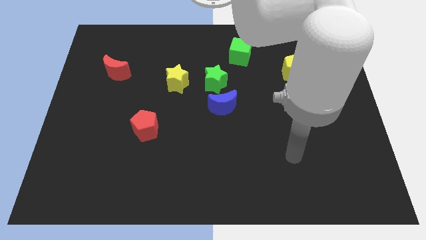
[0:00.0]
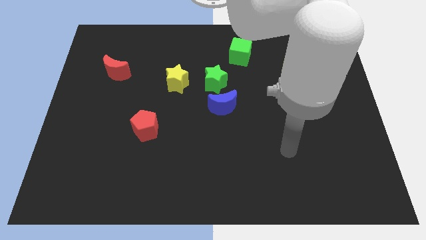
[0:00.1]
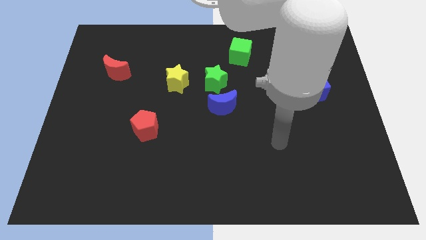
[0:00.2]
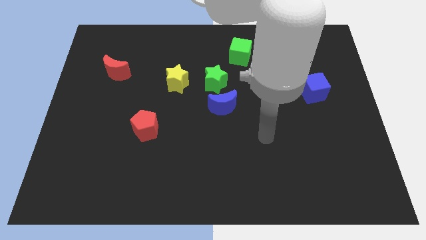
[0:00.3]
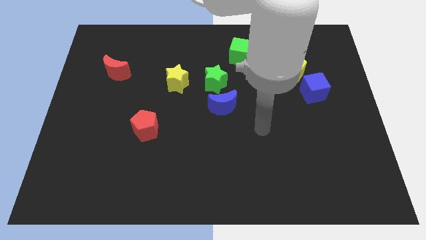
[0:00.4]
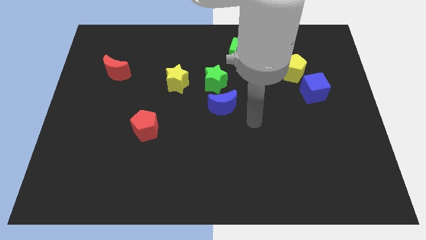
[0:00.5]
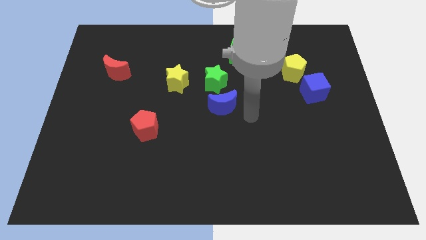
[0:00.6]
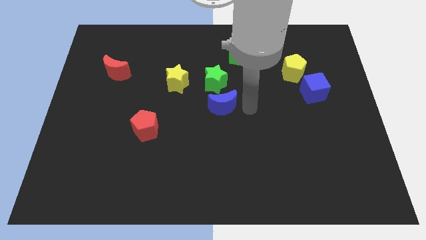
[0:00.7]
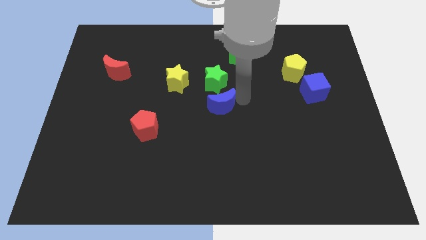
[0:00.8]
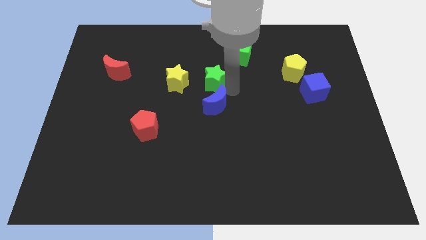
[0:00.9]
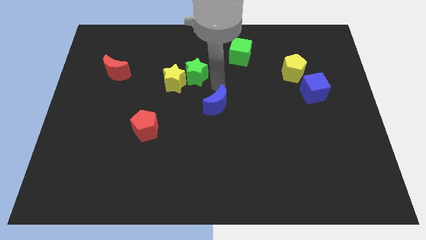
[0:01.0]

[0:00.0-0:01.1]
separate the blue moon from the green star

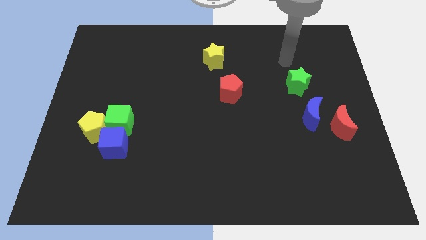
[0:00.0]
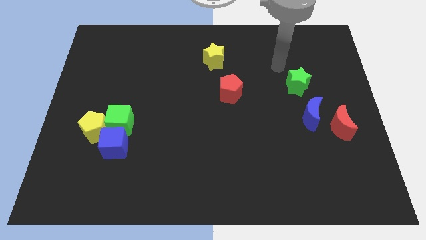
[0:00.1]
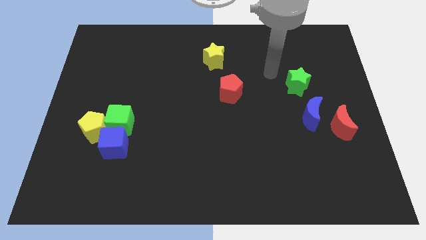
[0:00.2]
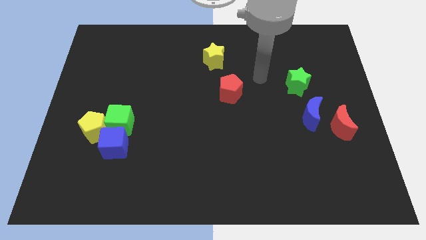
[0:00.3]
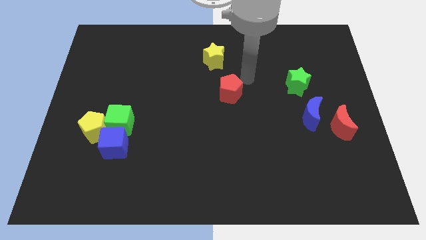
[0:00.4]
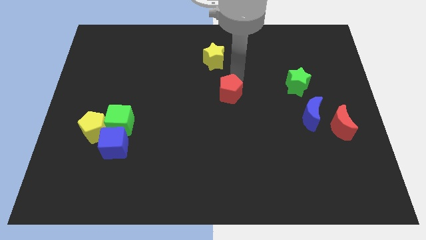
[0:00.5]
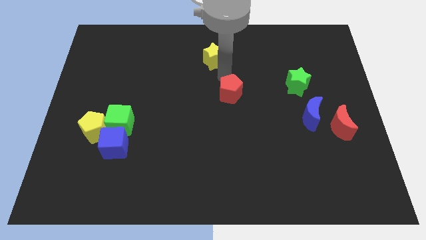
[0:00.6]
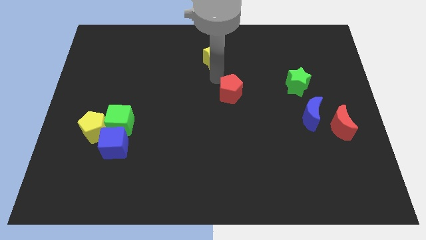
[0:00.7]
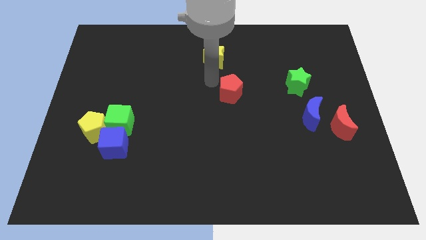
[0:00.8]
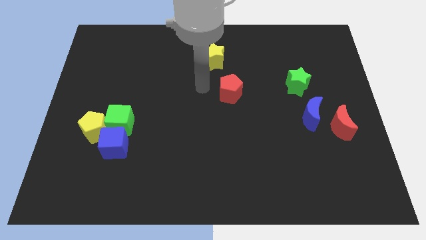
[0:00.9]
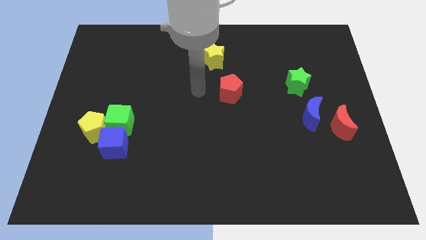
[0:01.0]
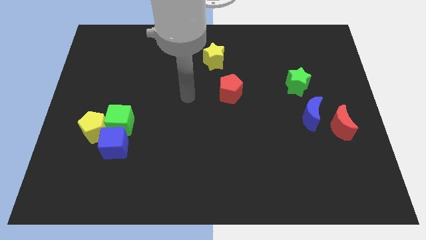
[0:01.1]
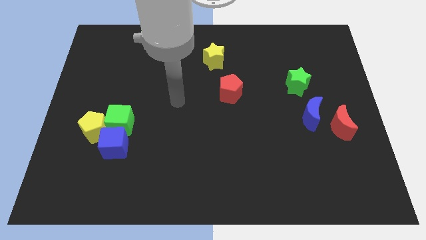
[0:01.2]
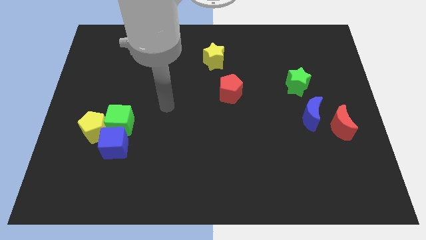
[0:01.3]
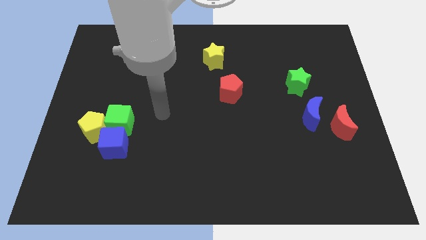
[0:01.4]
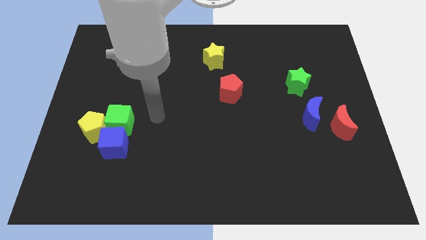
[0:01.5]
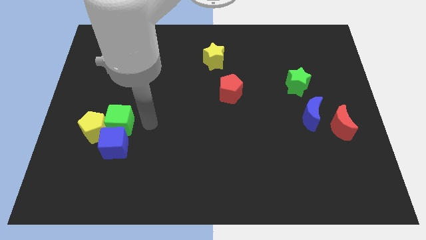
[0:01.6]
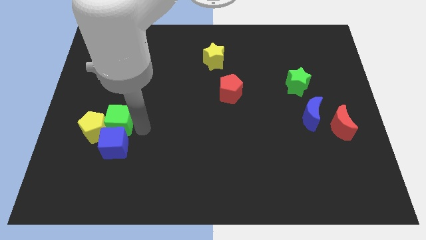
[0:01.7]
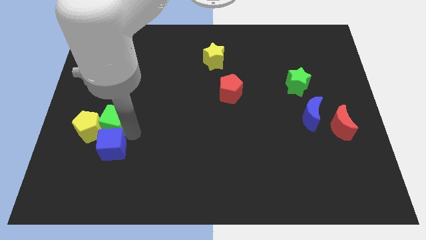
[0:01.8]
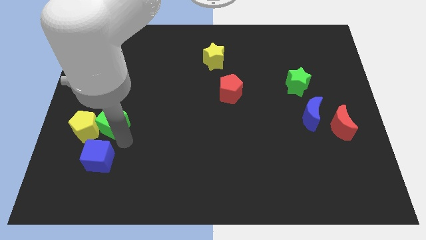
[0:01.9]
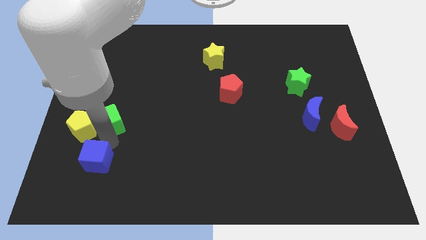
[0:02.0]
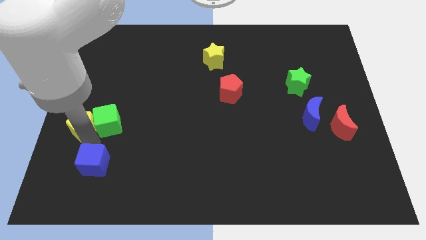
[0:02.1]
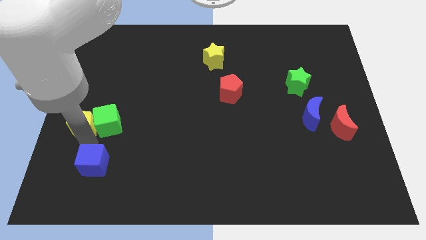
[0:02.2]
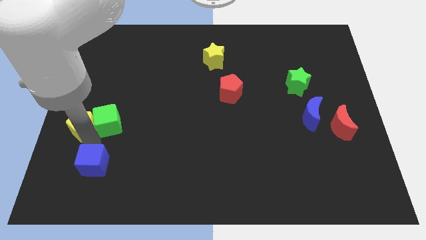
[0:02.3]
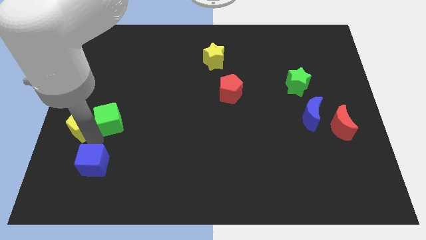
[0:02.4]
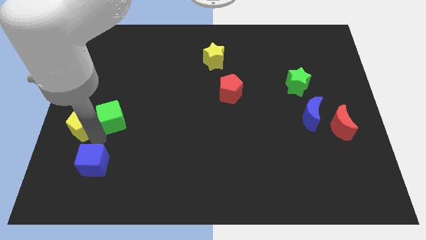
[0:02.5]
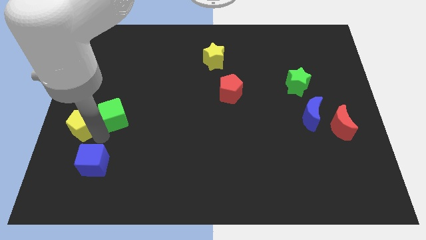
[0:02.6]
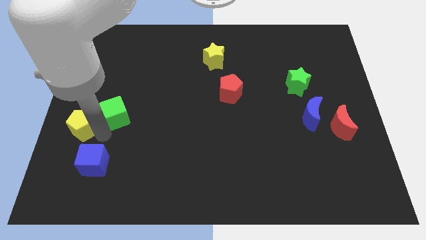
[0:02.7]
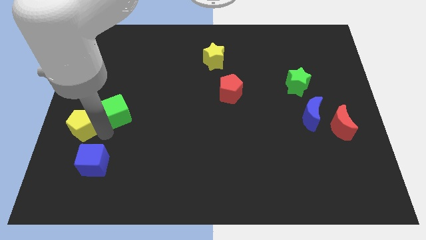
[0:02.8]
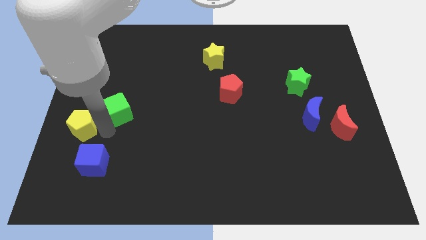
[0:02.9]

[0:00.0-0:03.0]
move the green cube away from the yellow pentagon and blue cube

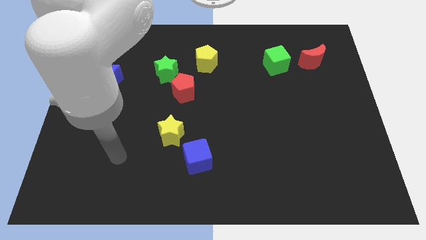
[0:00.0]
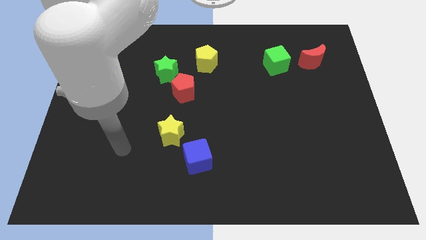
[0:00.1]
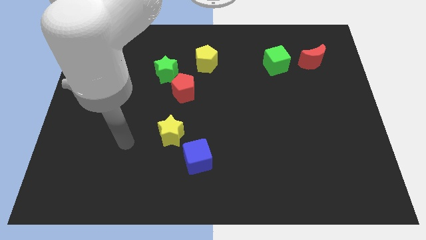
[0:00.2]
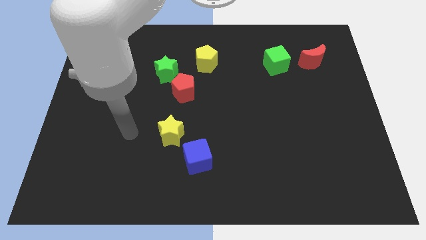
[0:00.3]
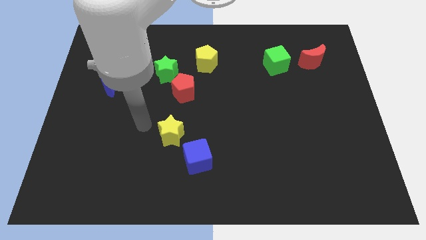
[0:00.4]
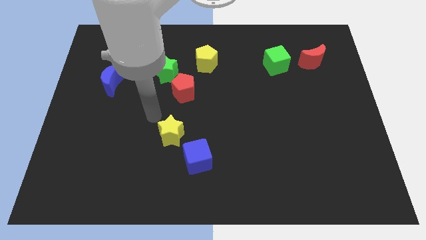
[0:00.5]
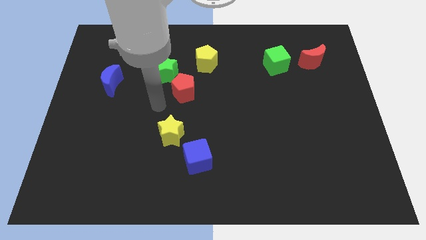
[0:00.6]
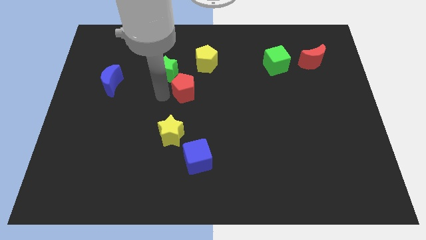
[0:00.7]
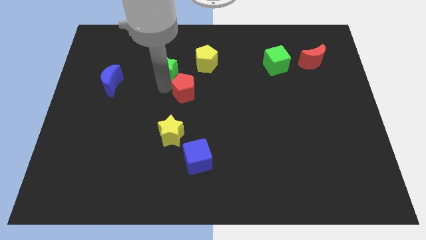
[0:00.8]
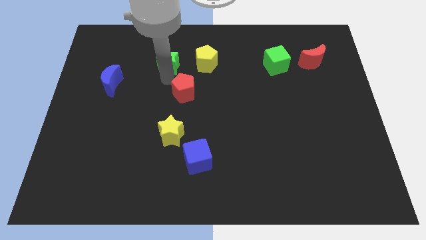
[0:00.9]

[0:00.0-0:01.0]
move the red pentagon away from the green star

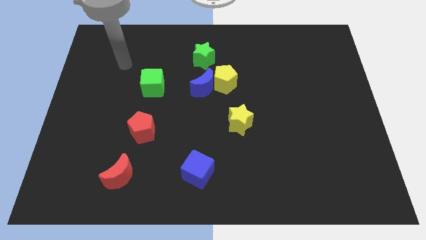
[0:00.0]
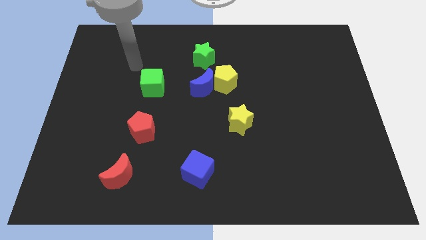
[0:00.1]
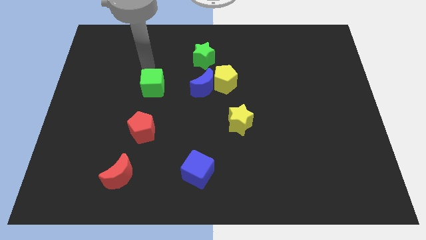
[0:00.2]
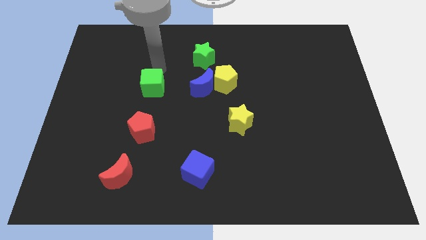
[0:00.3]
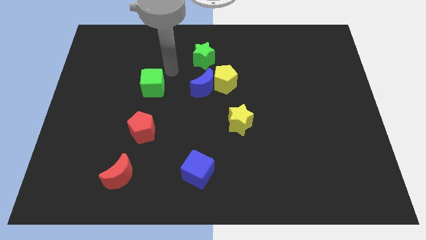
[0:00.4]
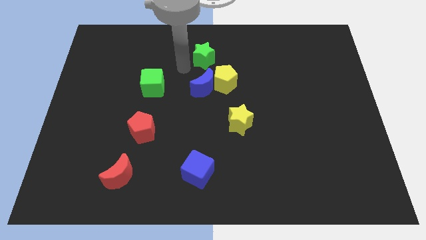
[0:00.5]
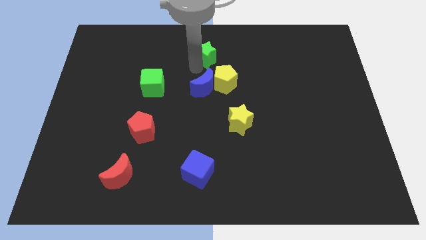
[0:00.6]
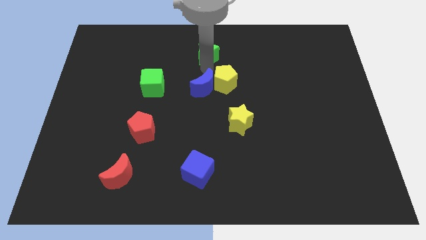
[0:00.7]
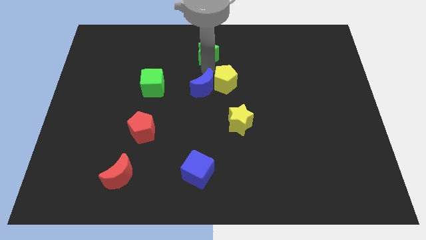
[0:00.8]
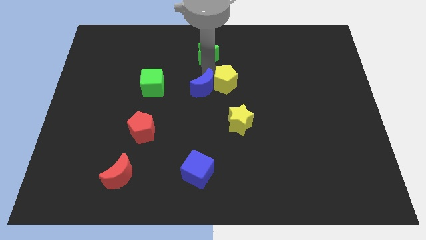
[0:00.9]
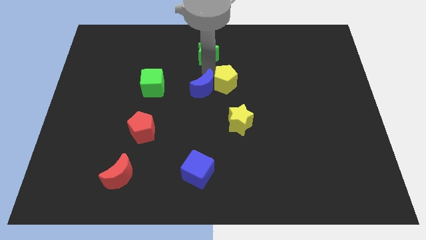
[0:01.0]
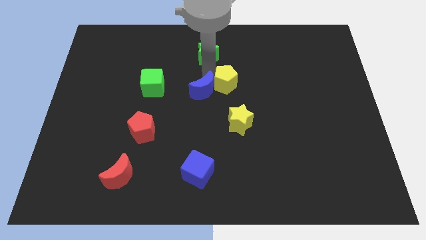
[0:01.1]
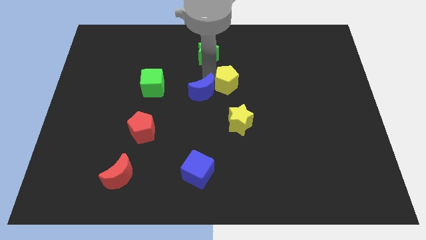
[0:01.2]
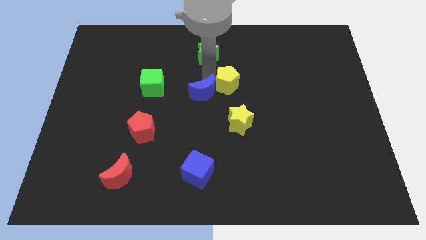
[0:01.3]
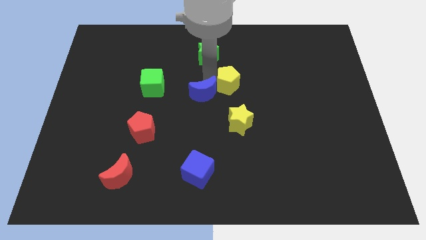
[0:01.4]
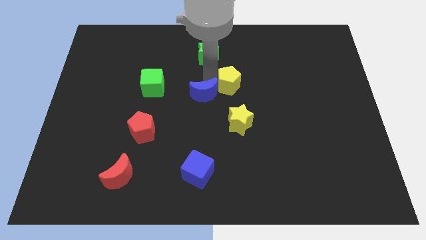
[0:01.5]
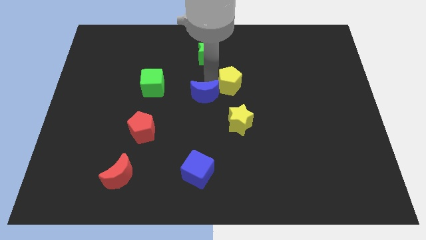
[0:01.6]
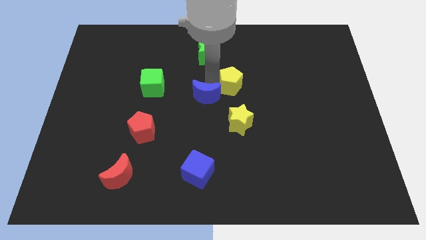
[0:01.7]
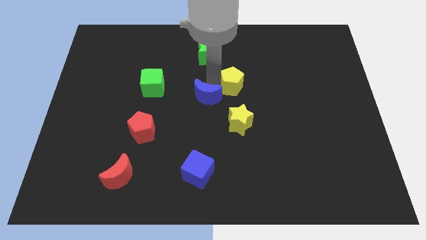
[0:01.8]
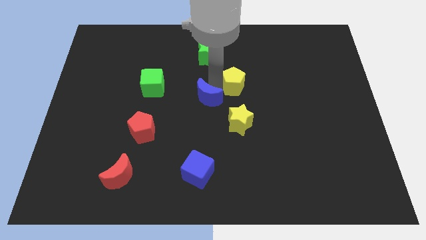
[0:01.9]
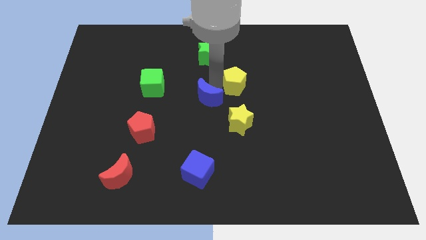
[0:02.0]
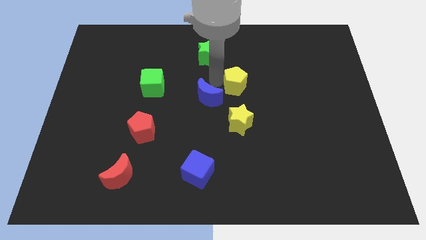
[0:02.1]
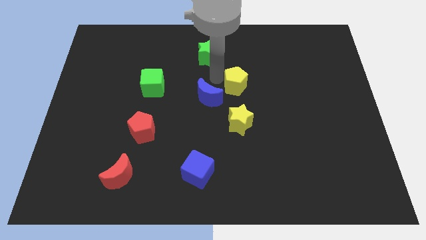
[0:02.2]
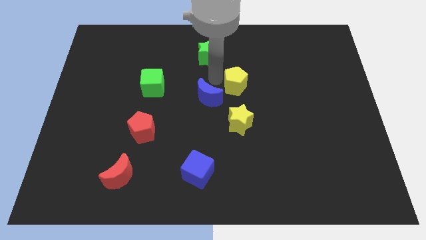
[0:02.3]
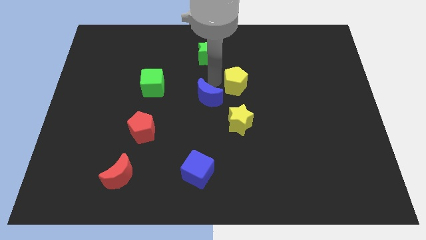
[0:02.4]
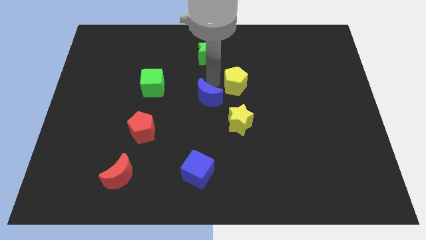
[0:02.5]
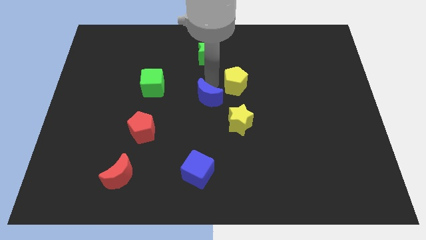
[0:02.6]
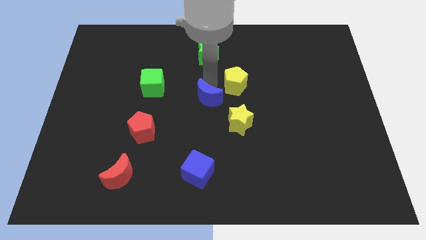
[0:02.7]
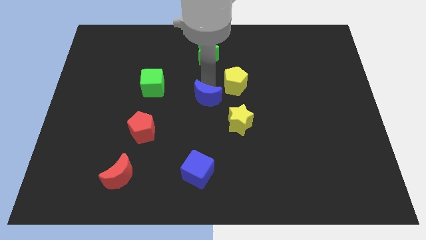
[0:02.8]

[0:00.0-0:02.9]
move the blue moon away from the yellow pentagon and green star

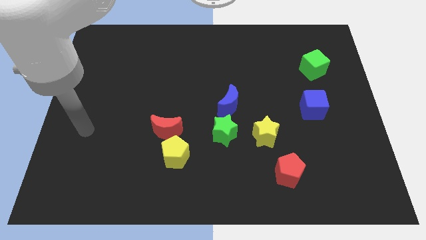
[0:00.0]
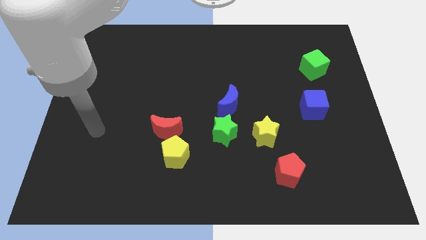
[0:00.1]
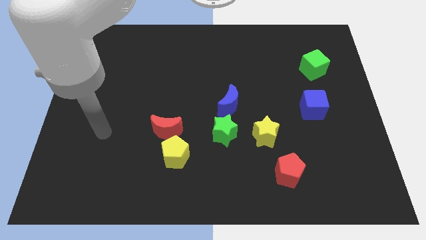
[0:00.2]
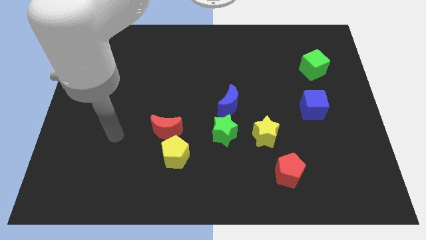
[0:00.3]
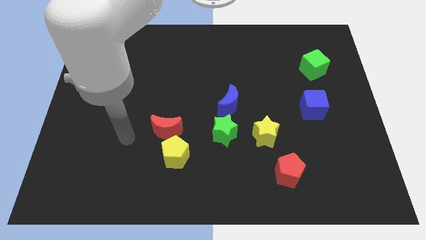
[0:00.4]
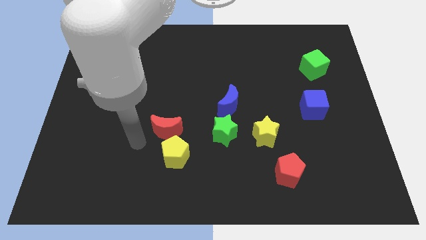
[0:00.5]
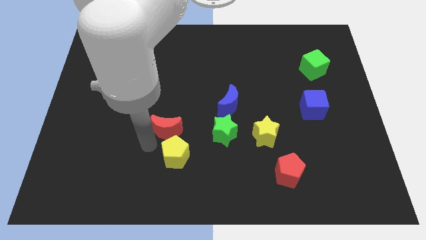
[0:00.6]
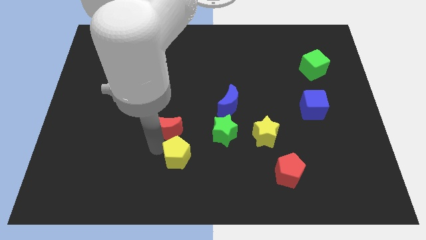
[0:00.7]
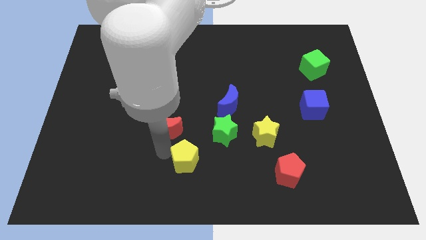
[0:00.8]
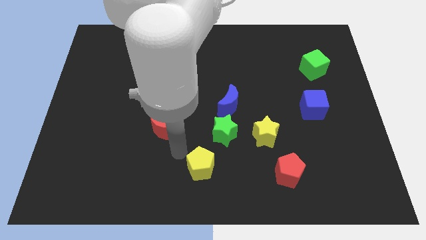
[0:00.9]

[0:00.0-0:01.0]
move the red moon away from the yellow pentagon

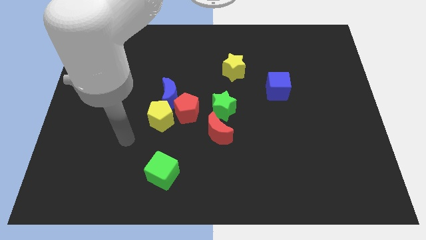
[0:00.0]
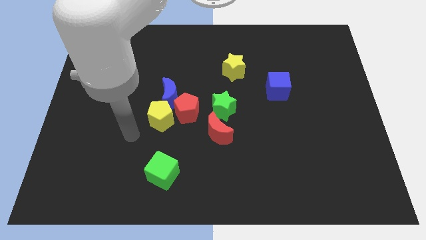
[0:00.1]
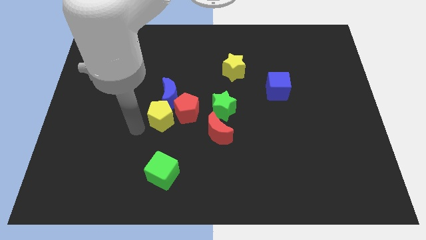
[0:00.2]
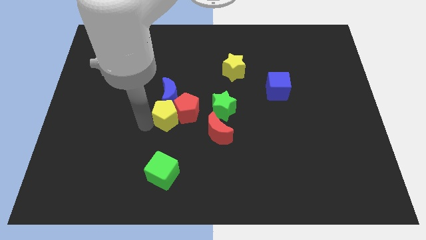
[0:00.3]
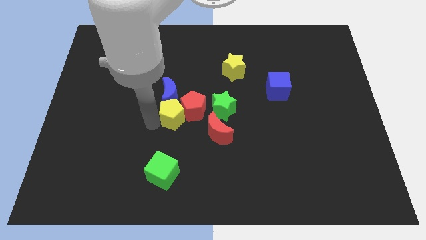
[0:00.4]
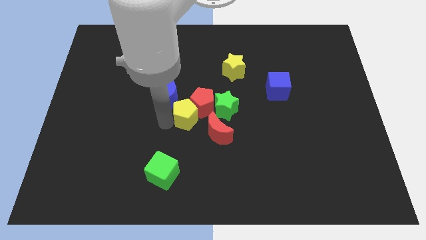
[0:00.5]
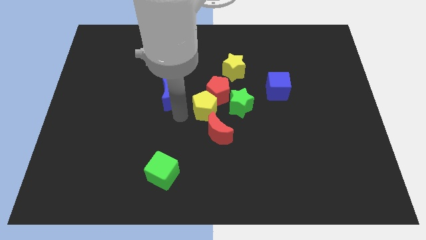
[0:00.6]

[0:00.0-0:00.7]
pull the blue moon apart from the red pentagon and yellow pentagon
